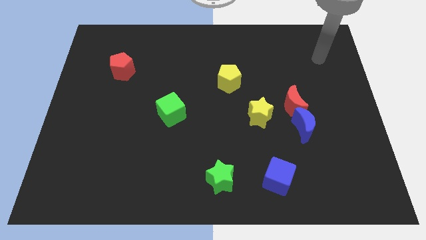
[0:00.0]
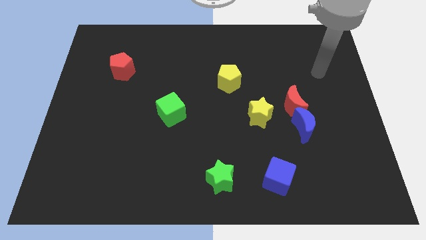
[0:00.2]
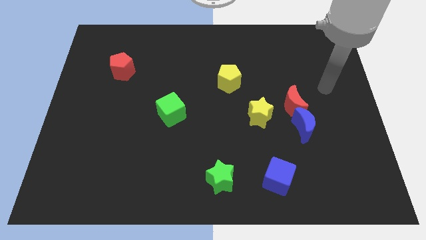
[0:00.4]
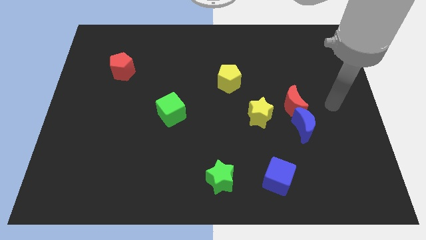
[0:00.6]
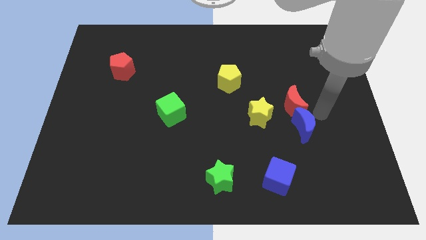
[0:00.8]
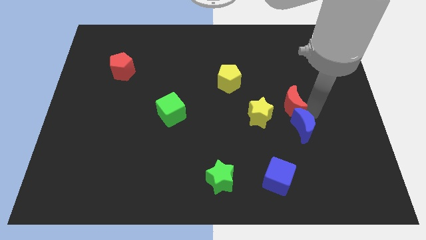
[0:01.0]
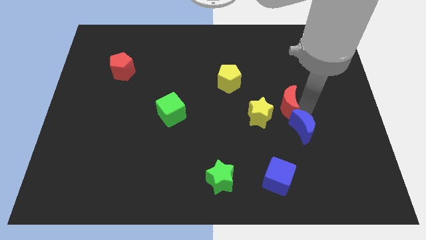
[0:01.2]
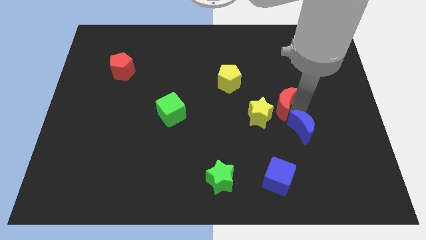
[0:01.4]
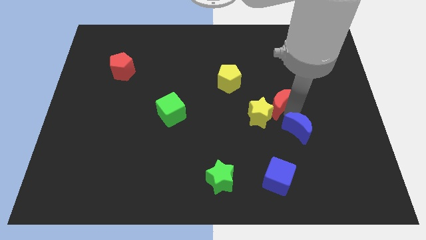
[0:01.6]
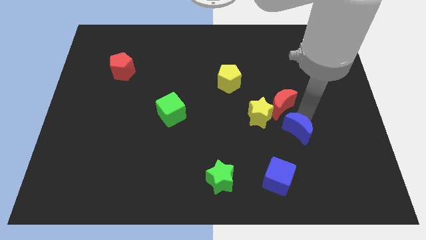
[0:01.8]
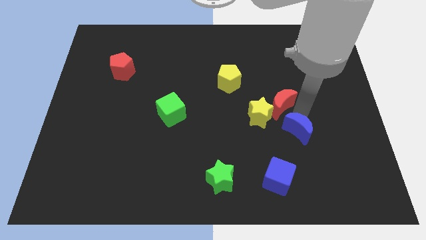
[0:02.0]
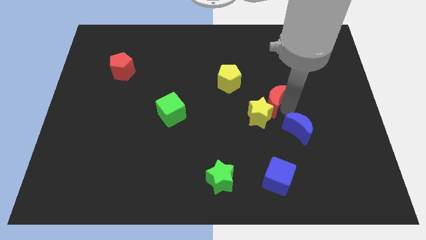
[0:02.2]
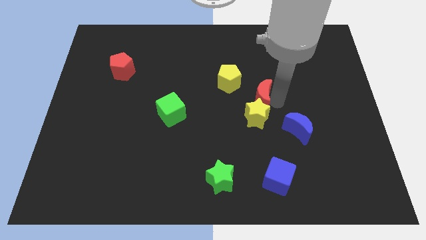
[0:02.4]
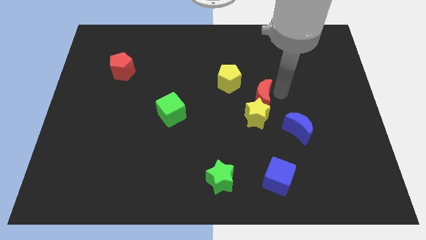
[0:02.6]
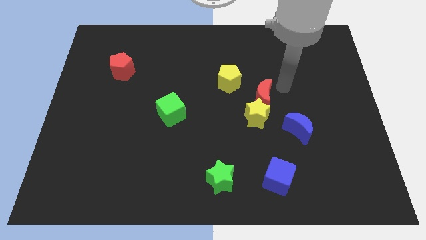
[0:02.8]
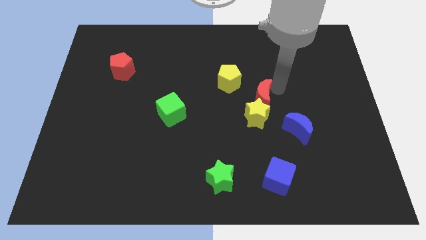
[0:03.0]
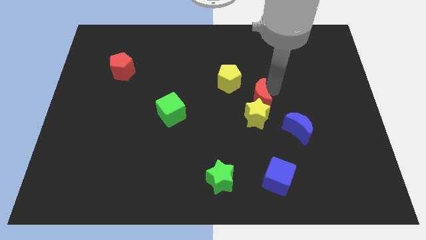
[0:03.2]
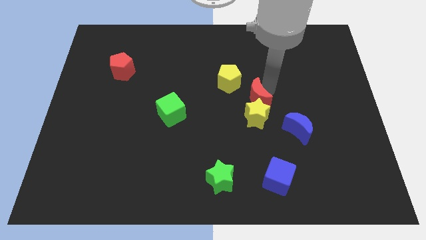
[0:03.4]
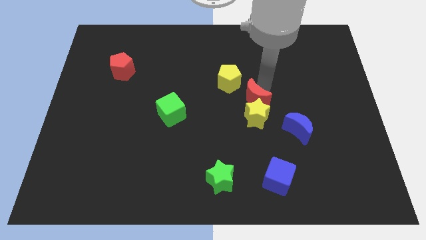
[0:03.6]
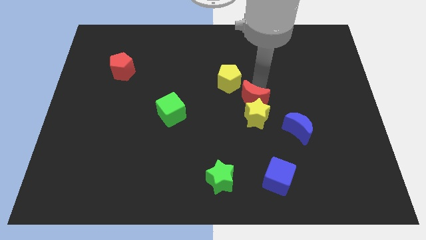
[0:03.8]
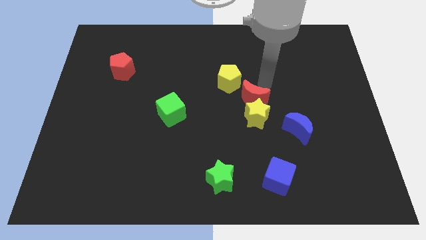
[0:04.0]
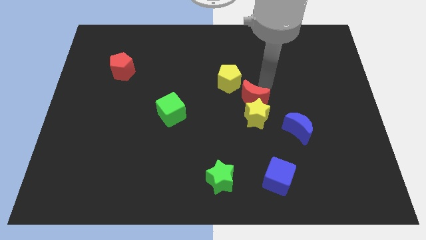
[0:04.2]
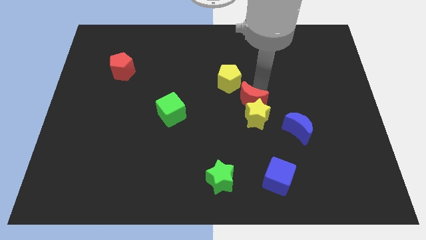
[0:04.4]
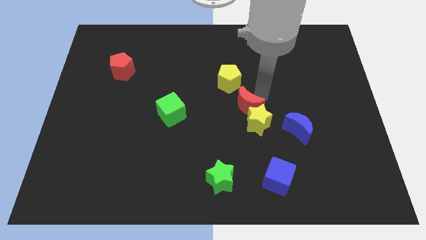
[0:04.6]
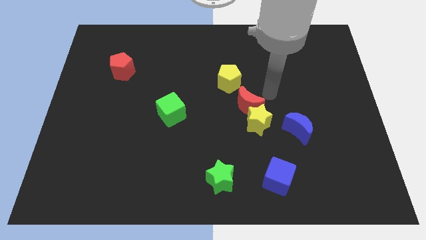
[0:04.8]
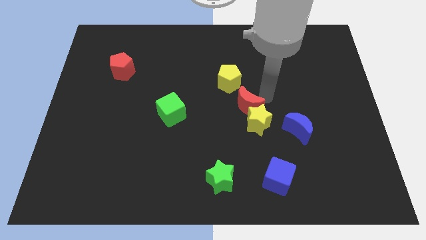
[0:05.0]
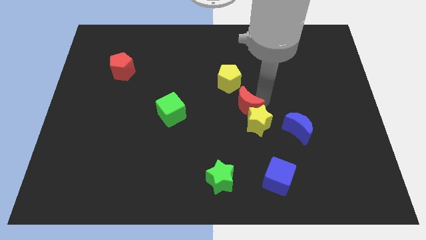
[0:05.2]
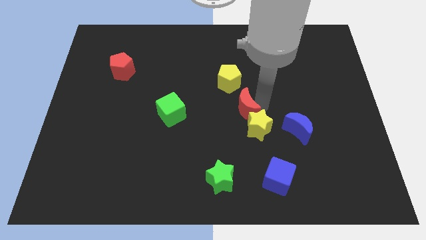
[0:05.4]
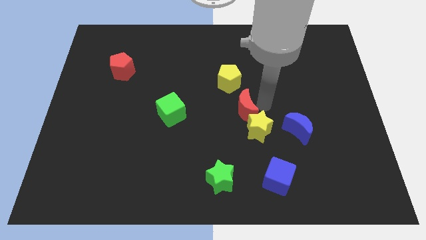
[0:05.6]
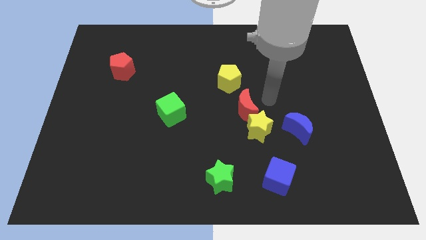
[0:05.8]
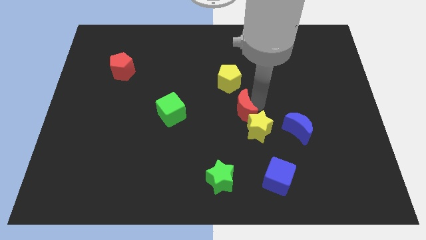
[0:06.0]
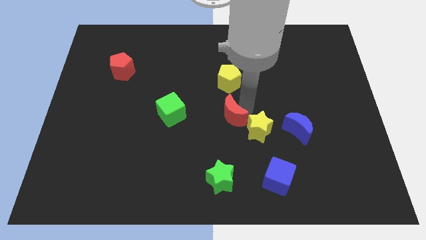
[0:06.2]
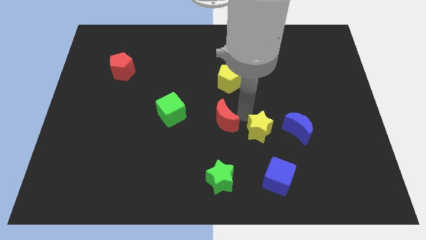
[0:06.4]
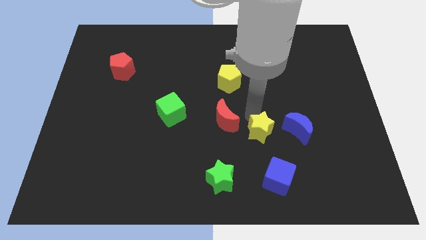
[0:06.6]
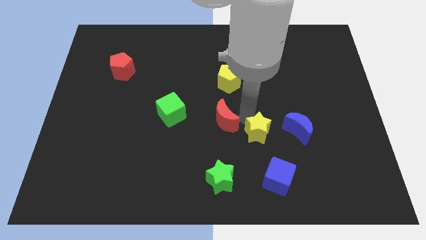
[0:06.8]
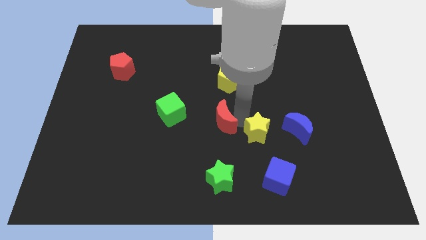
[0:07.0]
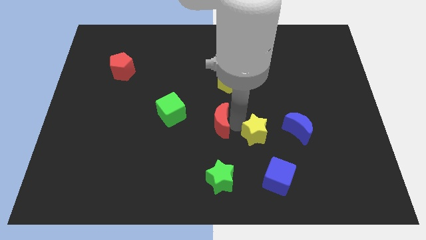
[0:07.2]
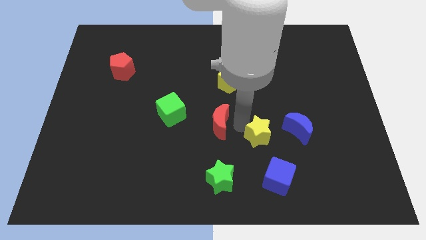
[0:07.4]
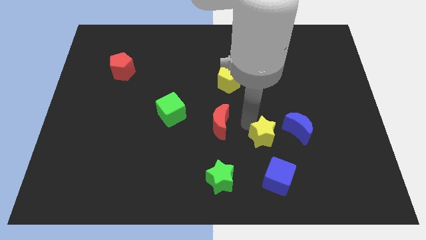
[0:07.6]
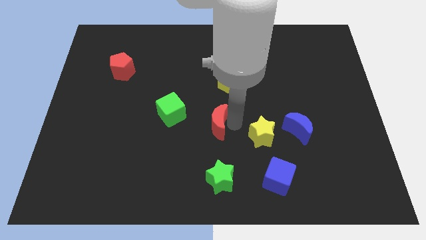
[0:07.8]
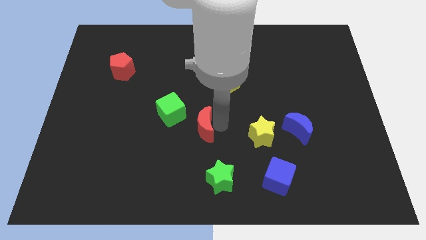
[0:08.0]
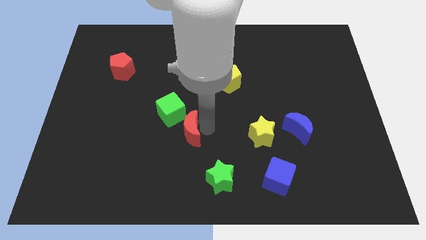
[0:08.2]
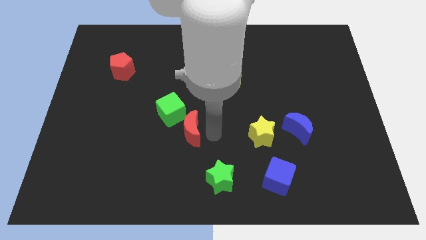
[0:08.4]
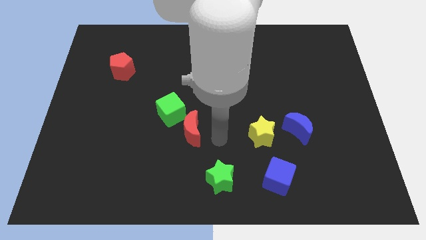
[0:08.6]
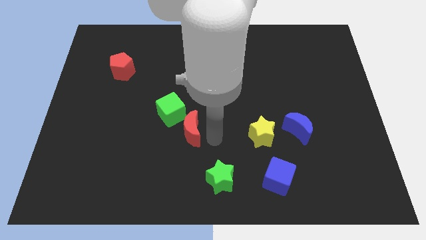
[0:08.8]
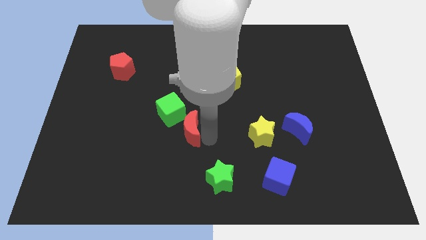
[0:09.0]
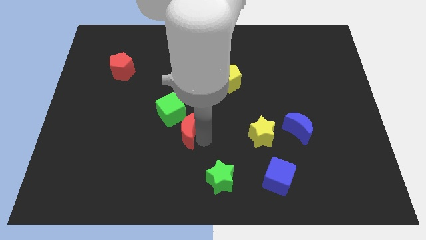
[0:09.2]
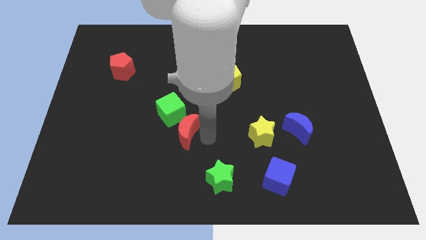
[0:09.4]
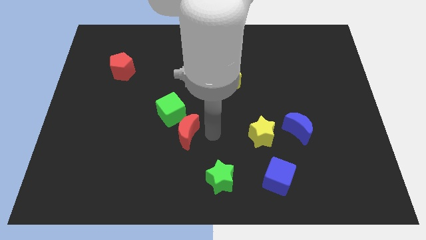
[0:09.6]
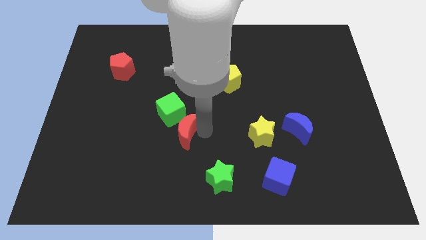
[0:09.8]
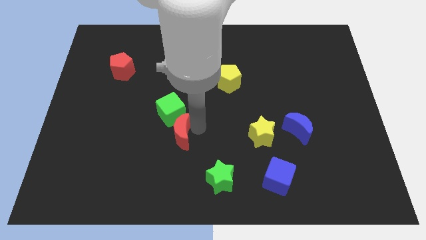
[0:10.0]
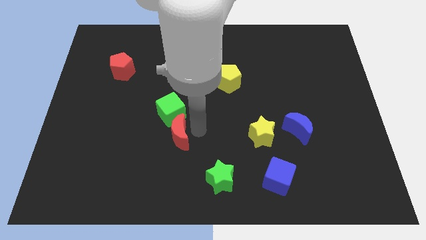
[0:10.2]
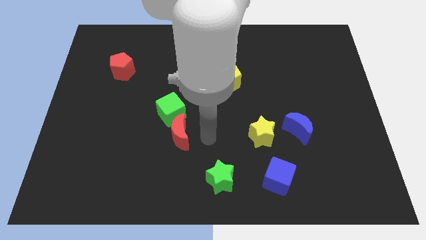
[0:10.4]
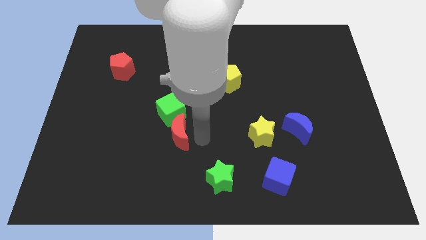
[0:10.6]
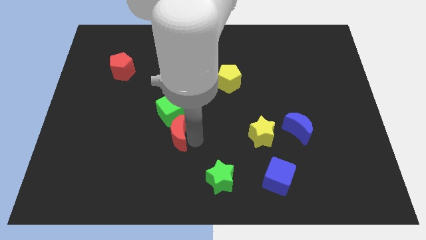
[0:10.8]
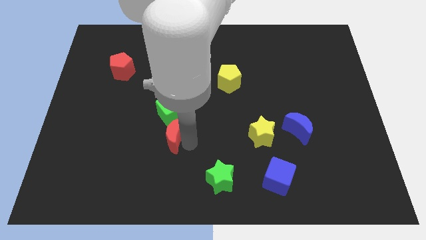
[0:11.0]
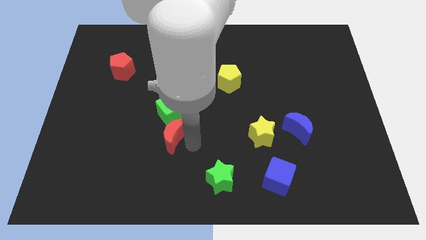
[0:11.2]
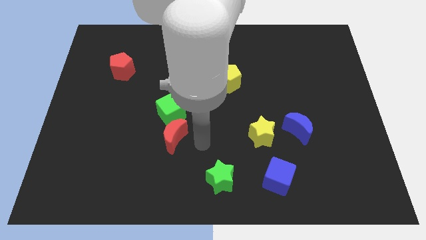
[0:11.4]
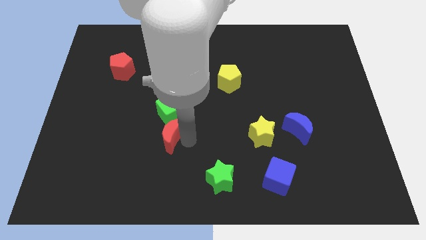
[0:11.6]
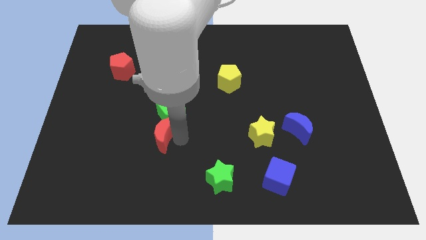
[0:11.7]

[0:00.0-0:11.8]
move the red moon diagonally down and to the left of the green cube
